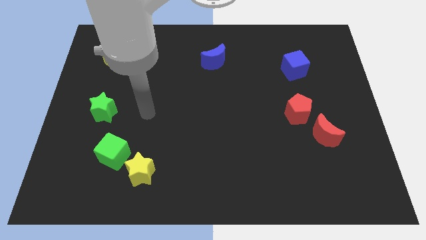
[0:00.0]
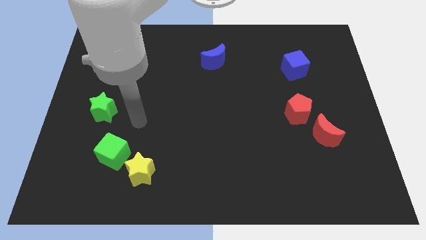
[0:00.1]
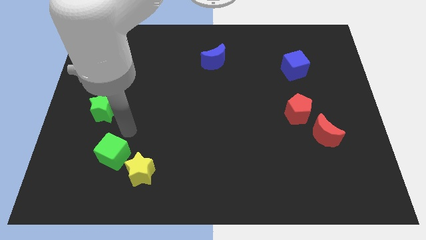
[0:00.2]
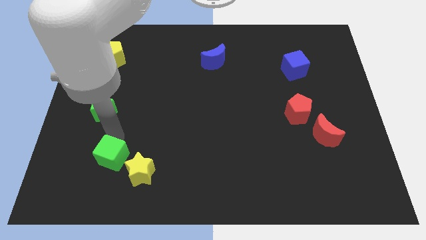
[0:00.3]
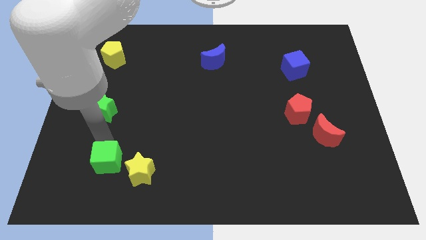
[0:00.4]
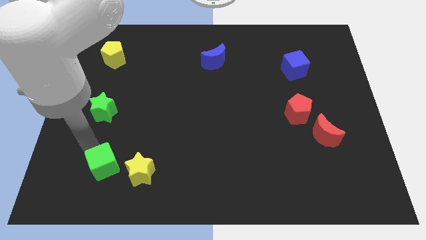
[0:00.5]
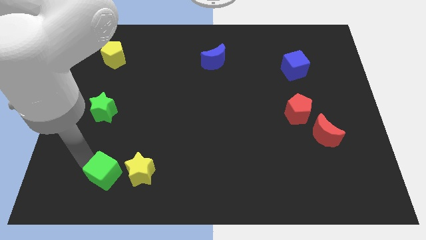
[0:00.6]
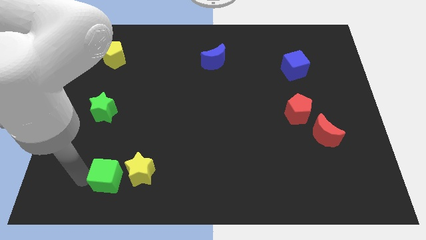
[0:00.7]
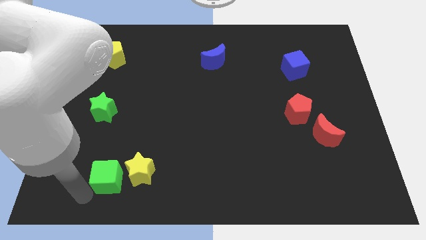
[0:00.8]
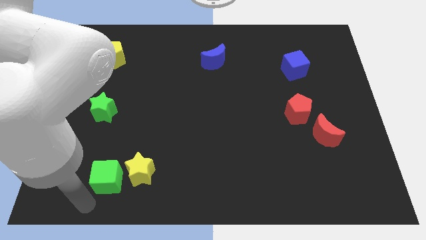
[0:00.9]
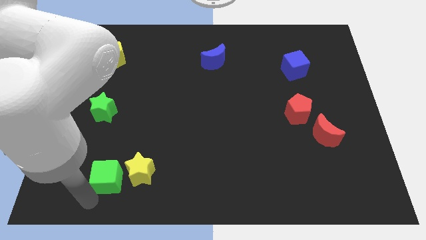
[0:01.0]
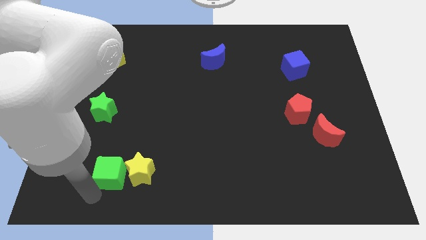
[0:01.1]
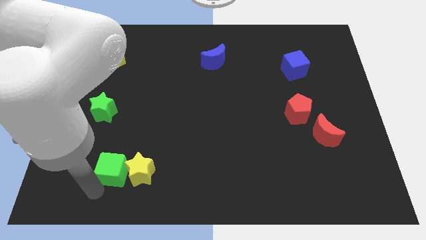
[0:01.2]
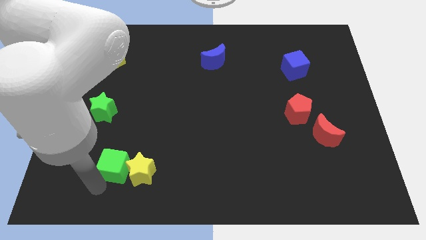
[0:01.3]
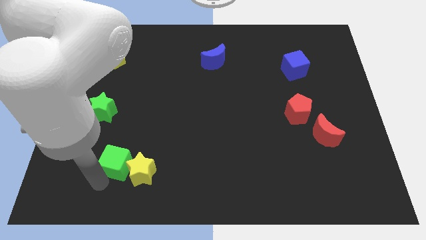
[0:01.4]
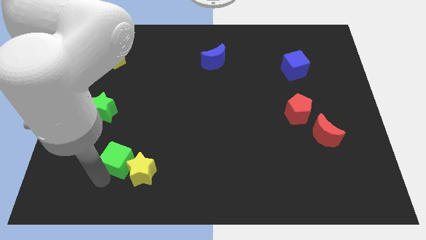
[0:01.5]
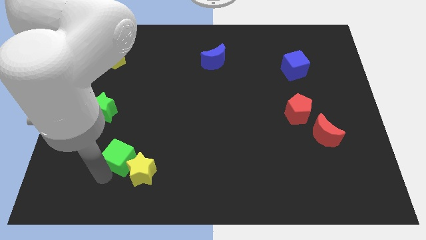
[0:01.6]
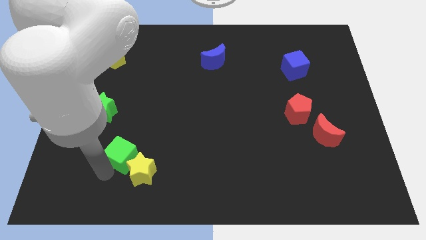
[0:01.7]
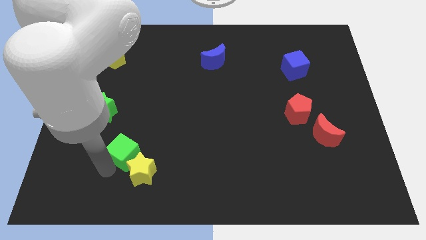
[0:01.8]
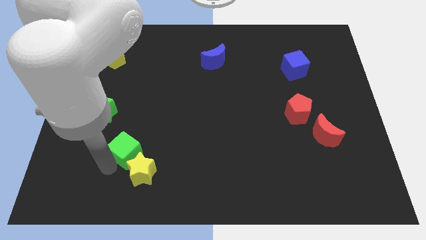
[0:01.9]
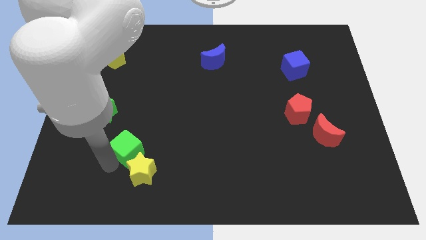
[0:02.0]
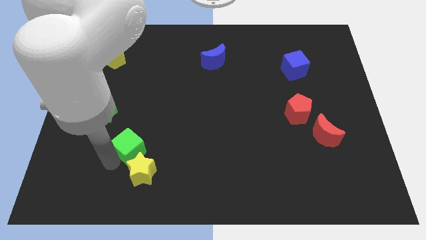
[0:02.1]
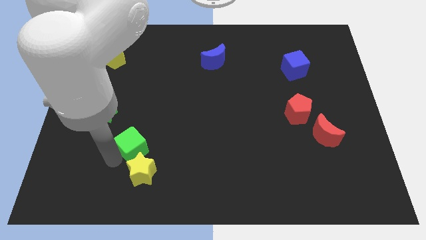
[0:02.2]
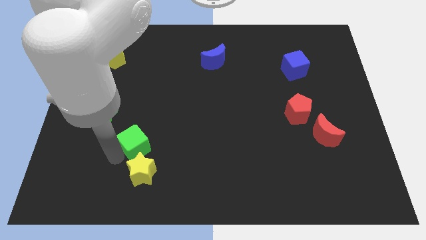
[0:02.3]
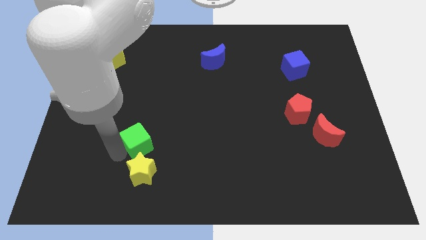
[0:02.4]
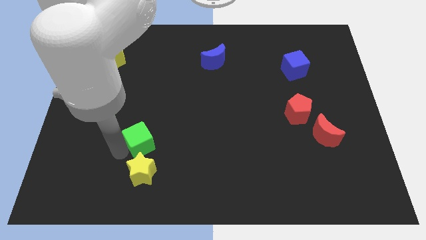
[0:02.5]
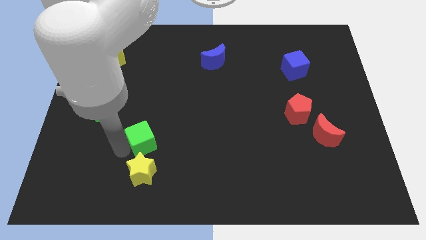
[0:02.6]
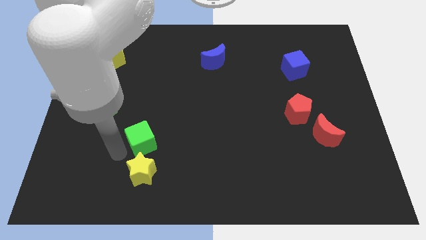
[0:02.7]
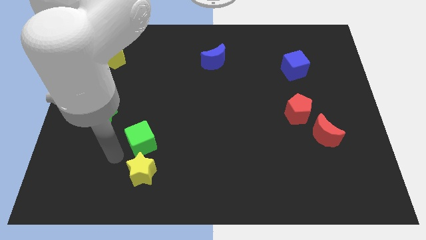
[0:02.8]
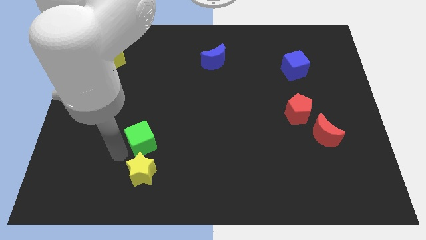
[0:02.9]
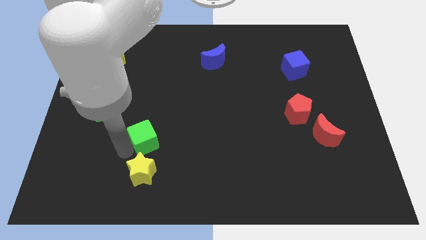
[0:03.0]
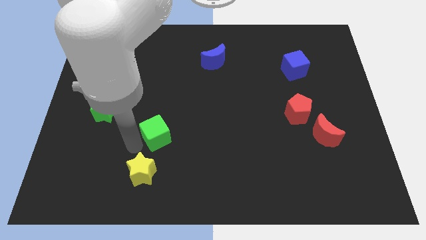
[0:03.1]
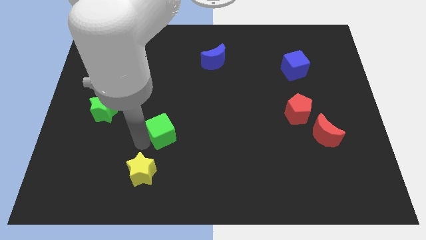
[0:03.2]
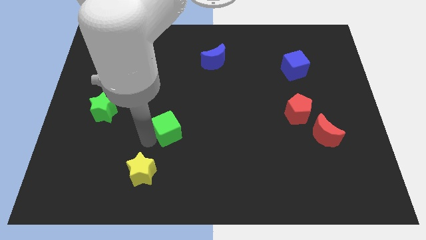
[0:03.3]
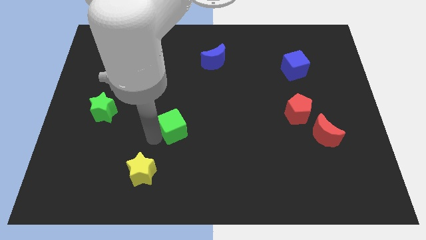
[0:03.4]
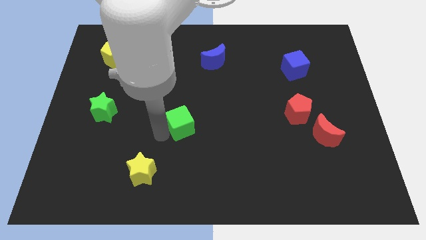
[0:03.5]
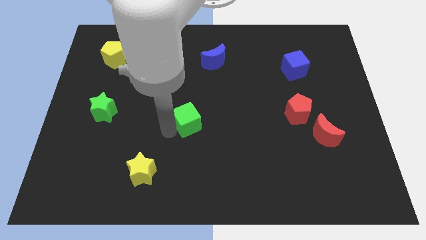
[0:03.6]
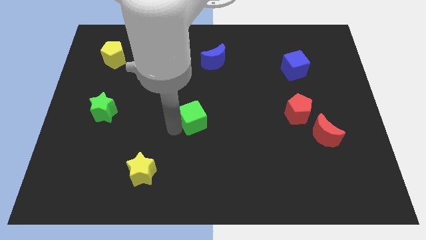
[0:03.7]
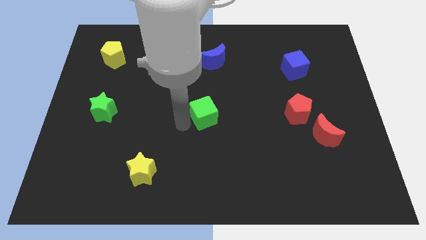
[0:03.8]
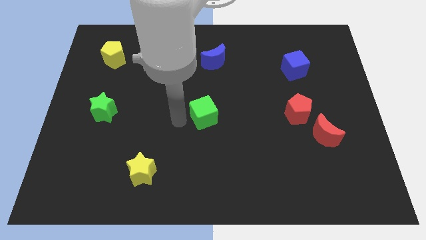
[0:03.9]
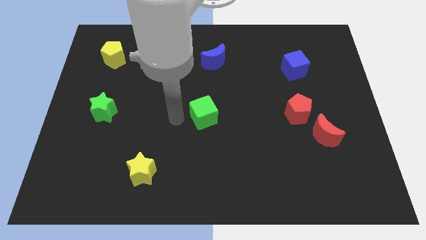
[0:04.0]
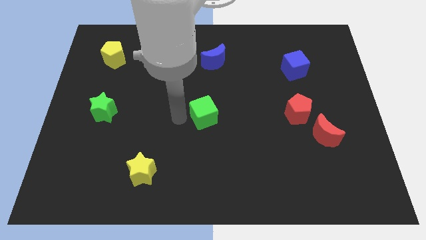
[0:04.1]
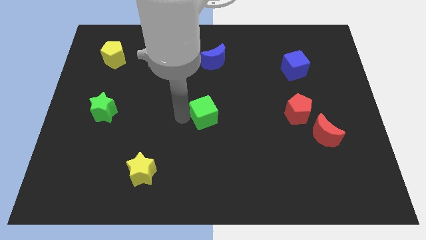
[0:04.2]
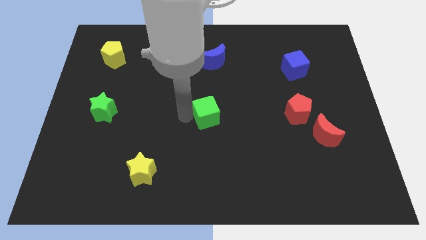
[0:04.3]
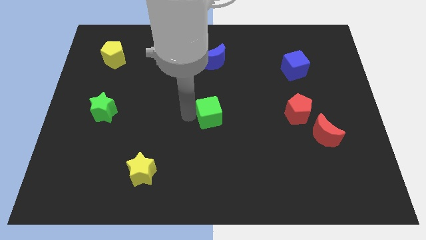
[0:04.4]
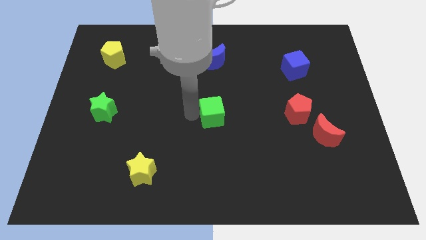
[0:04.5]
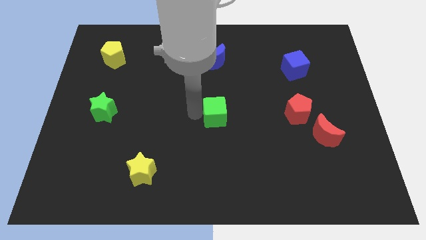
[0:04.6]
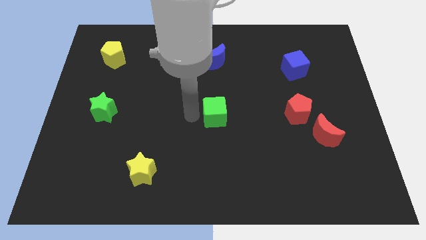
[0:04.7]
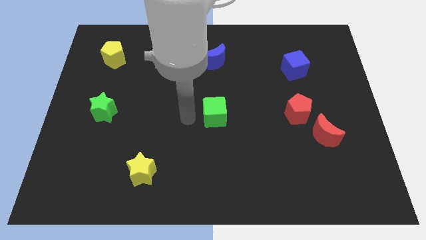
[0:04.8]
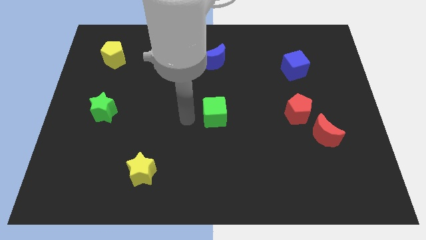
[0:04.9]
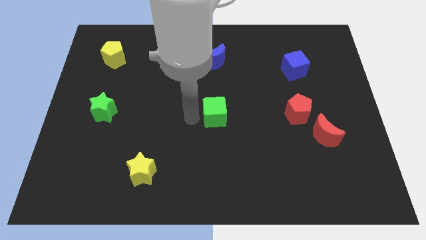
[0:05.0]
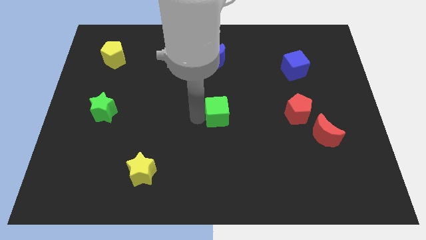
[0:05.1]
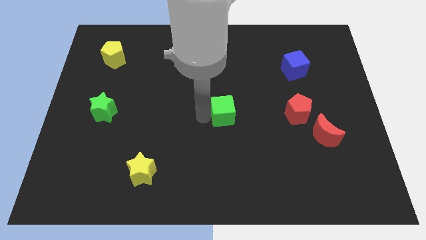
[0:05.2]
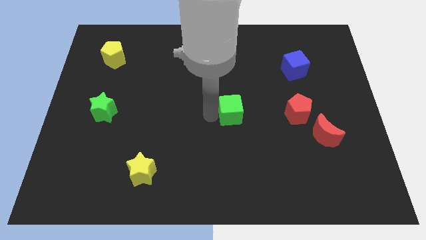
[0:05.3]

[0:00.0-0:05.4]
push the green cube to the left side of the red pentagon

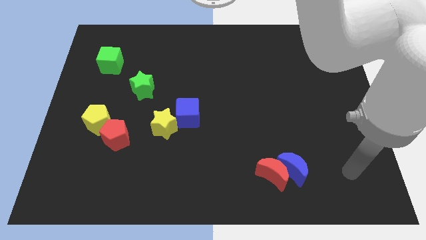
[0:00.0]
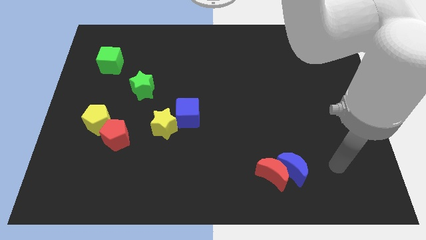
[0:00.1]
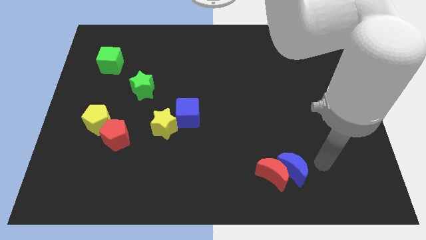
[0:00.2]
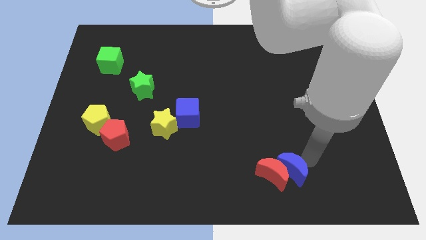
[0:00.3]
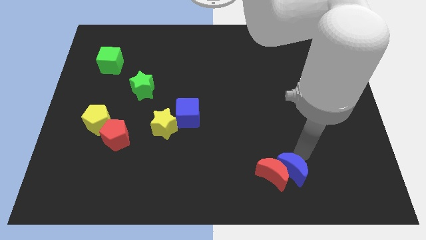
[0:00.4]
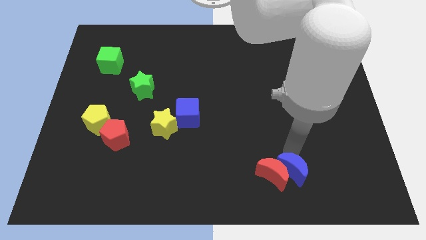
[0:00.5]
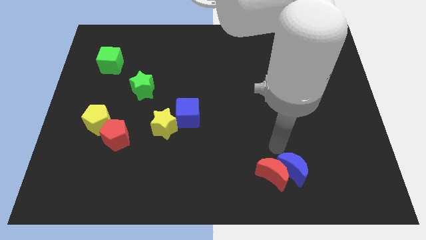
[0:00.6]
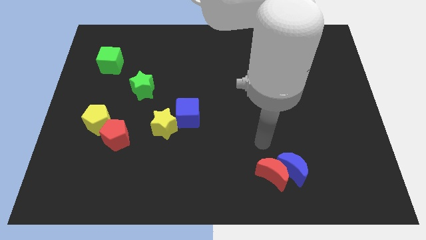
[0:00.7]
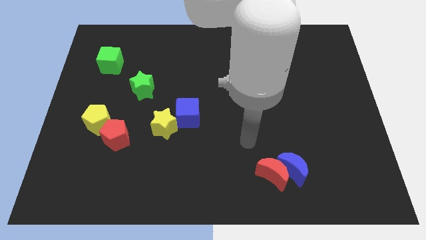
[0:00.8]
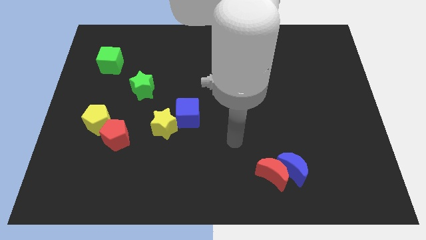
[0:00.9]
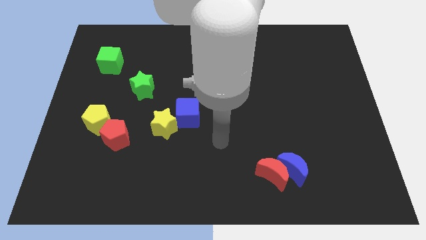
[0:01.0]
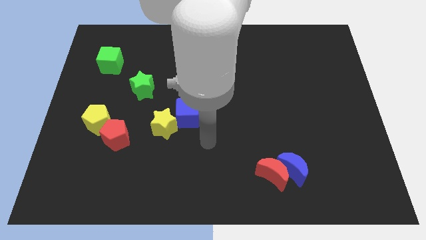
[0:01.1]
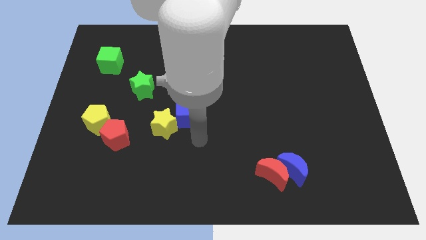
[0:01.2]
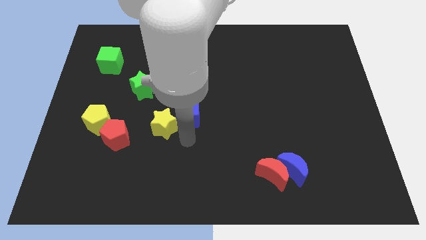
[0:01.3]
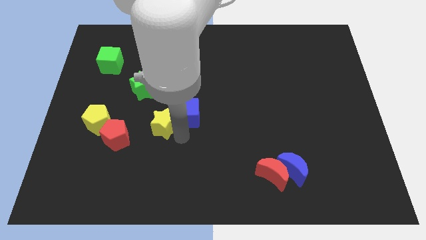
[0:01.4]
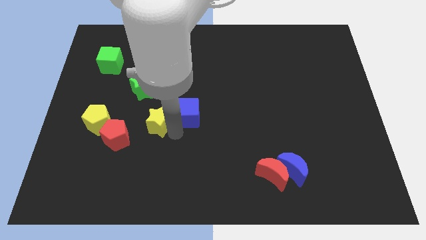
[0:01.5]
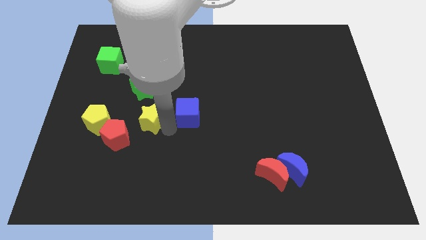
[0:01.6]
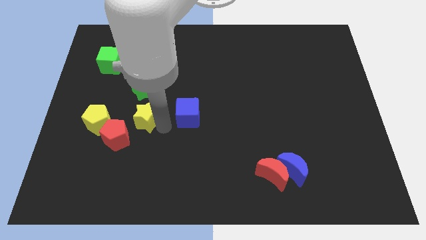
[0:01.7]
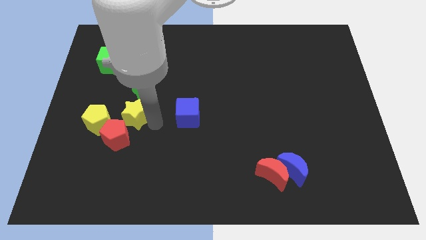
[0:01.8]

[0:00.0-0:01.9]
slide the yellow star to the top of the red pentagon
